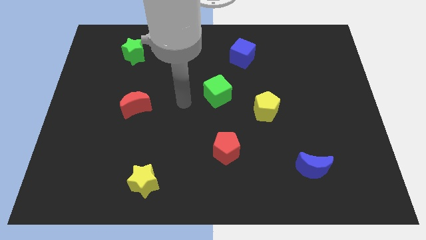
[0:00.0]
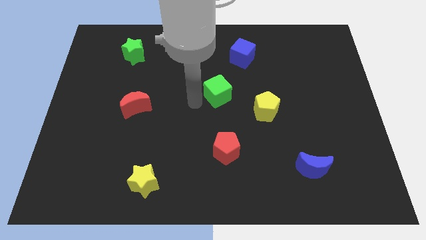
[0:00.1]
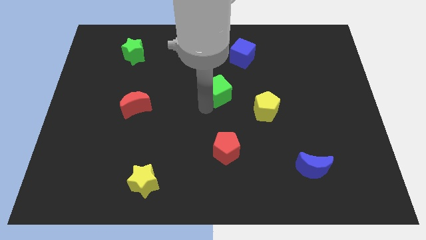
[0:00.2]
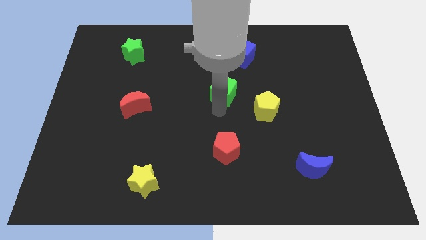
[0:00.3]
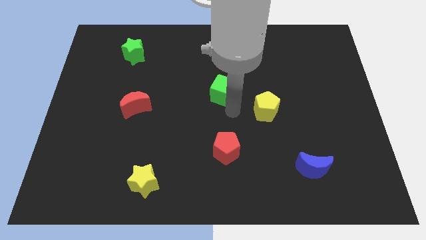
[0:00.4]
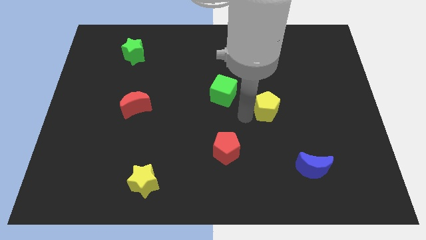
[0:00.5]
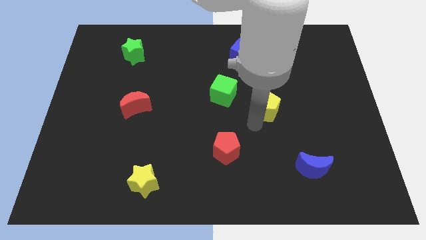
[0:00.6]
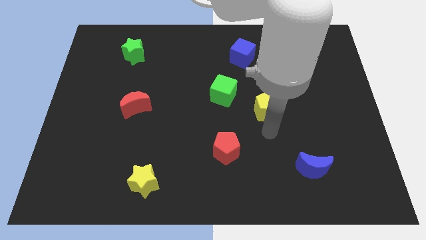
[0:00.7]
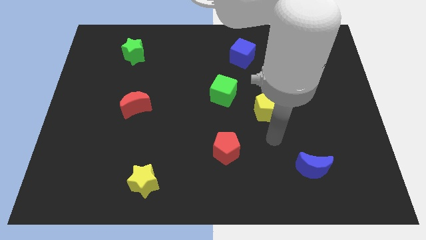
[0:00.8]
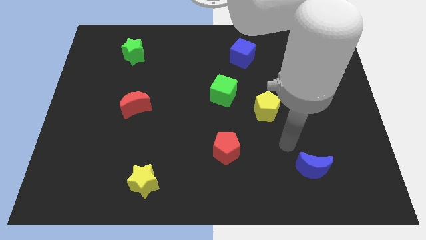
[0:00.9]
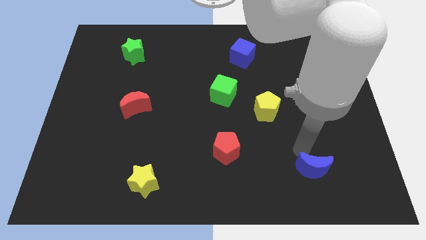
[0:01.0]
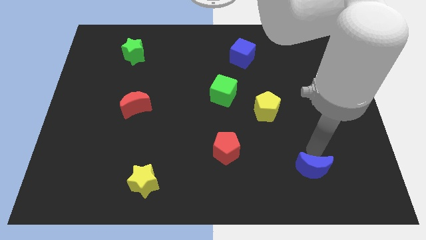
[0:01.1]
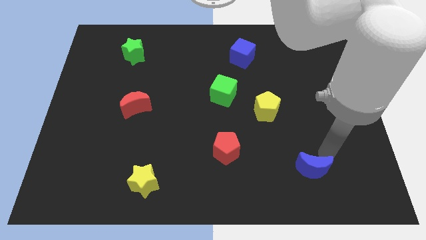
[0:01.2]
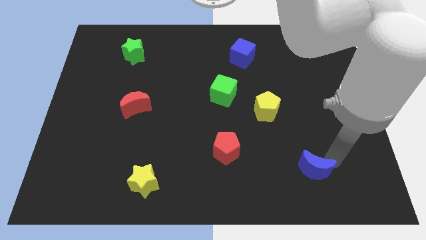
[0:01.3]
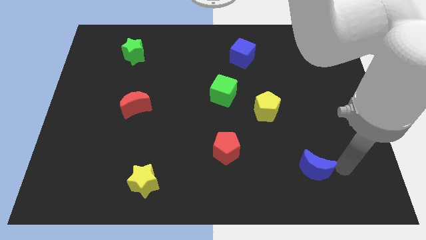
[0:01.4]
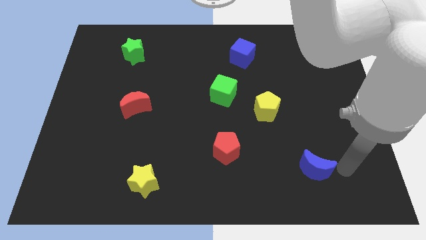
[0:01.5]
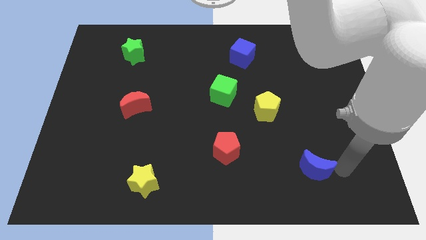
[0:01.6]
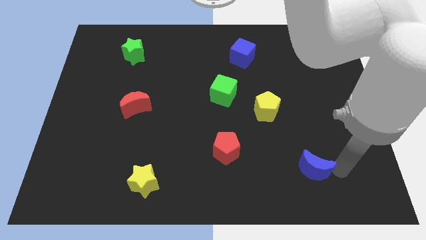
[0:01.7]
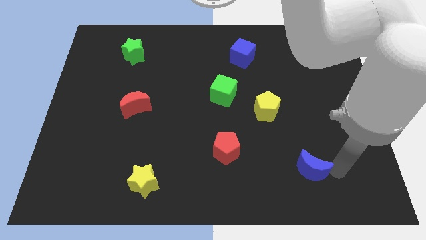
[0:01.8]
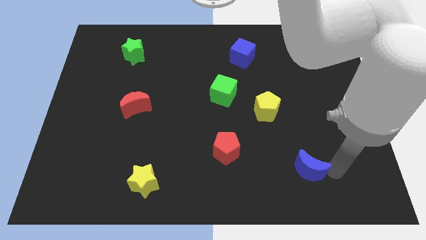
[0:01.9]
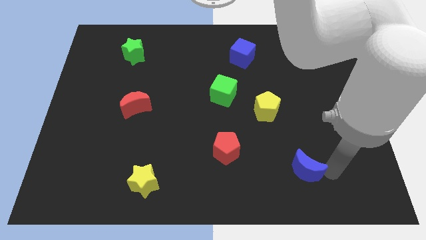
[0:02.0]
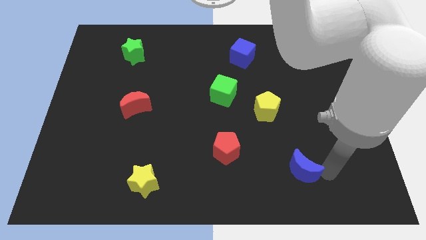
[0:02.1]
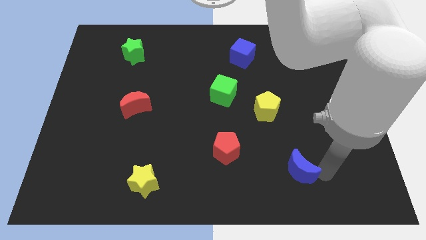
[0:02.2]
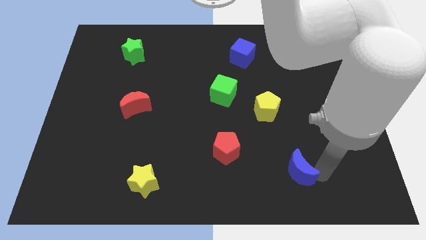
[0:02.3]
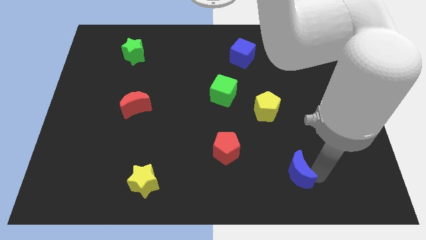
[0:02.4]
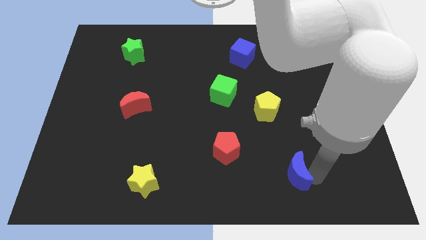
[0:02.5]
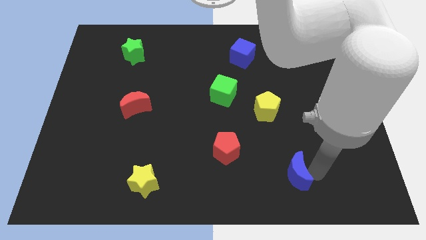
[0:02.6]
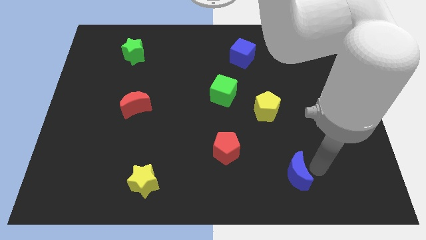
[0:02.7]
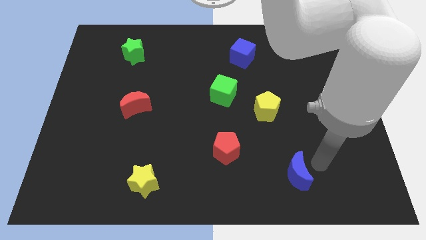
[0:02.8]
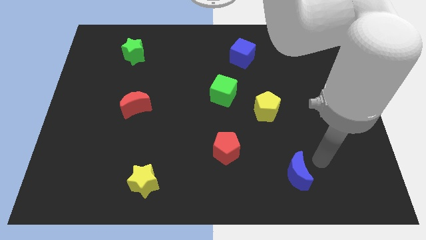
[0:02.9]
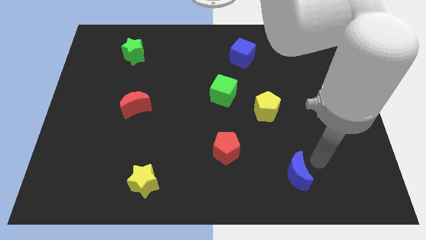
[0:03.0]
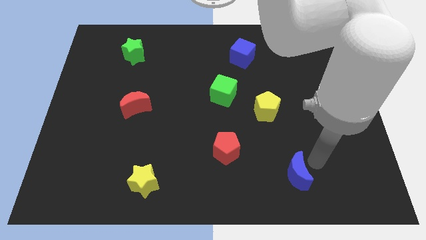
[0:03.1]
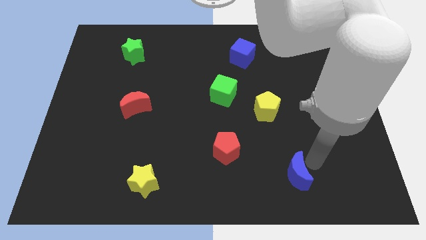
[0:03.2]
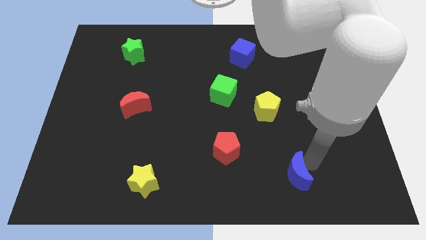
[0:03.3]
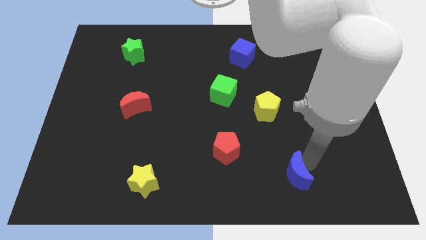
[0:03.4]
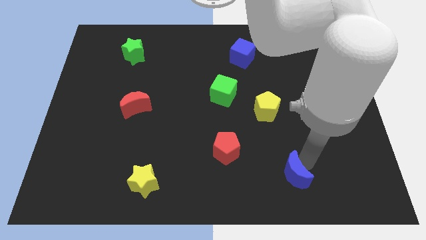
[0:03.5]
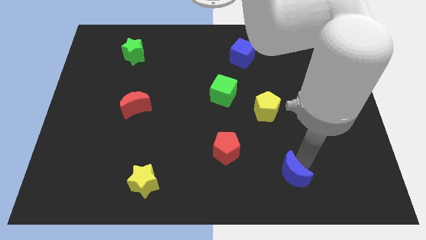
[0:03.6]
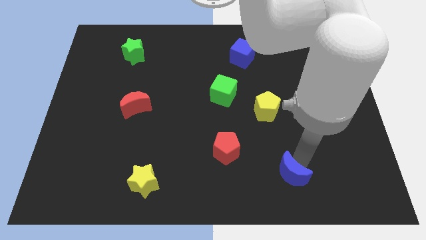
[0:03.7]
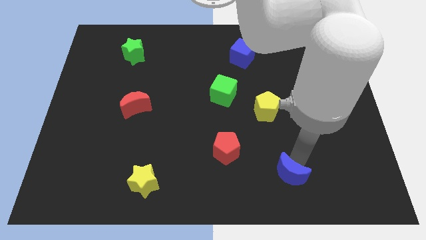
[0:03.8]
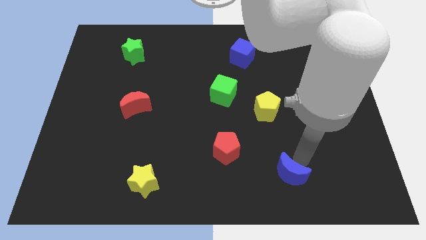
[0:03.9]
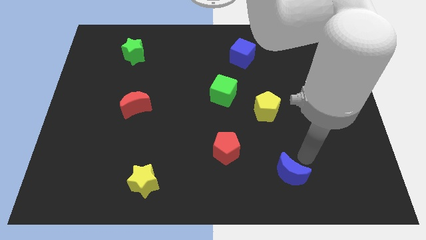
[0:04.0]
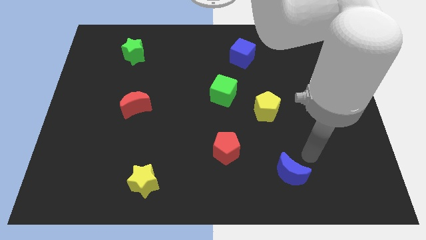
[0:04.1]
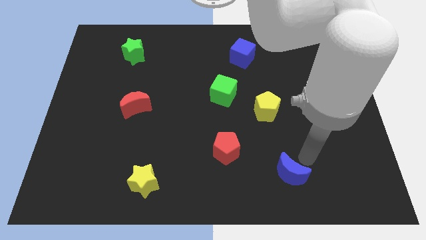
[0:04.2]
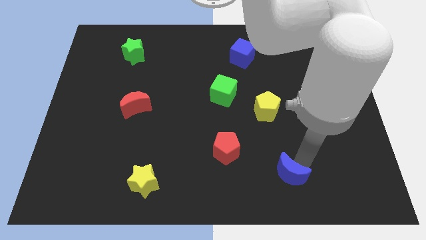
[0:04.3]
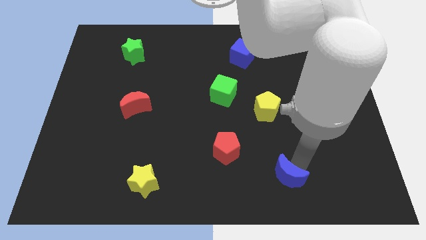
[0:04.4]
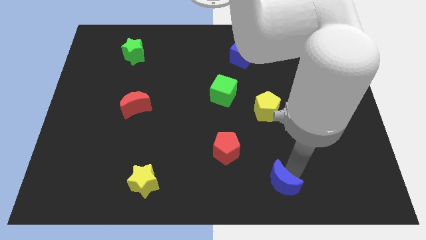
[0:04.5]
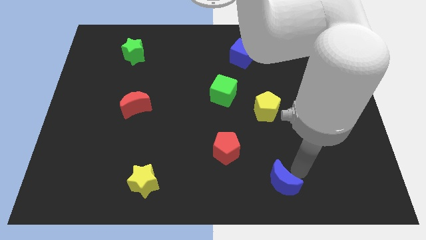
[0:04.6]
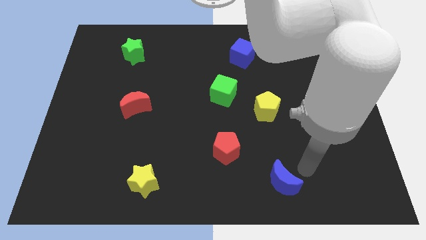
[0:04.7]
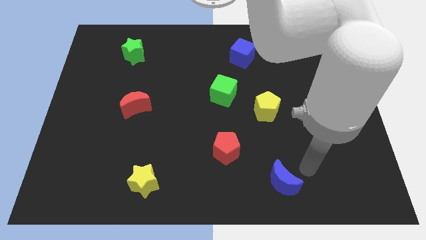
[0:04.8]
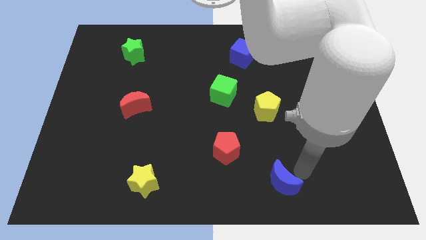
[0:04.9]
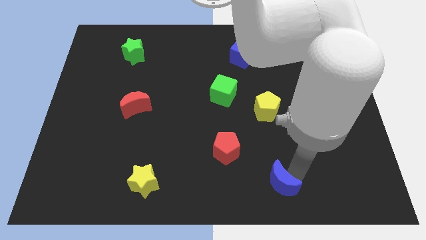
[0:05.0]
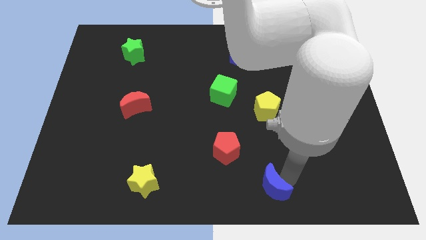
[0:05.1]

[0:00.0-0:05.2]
move the blue moon to the bottom

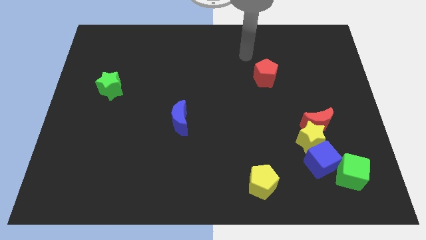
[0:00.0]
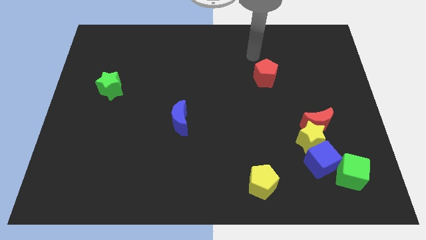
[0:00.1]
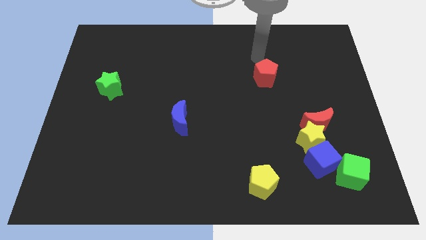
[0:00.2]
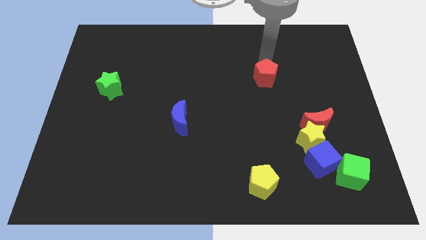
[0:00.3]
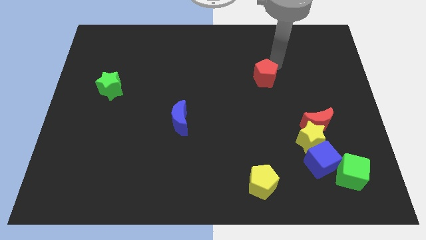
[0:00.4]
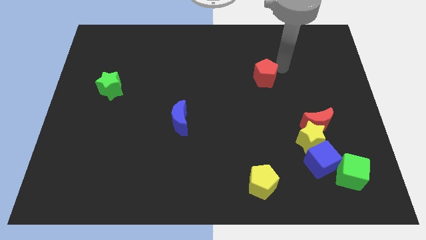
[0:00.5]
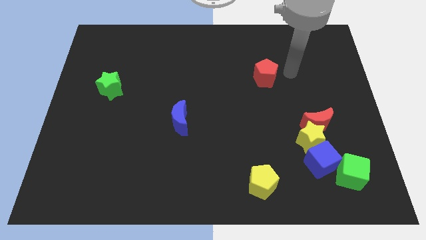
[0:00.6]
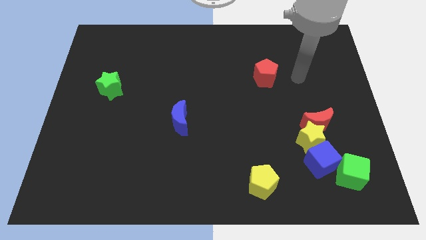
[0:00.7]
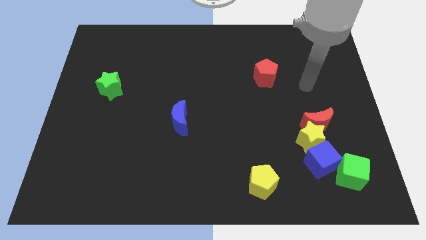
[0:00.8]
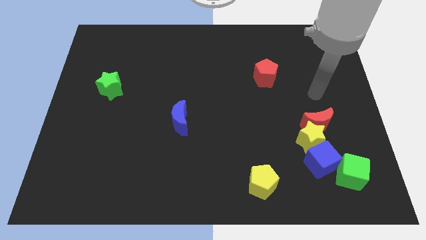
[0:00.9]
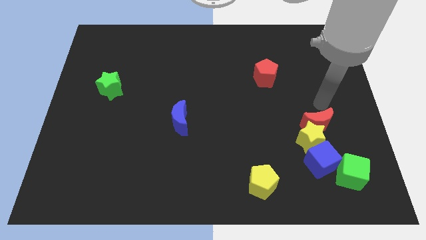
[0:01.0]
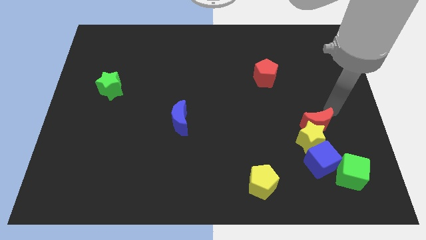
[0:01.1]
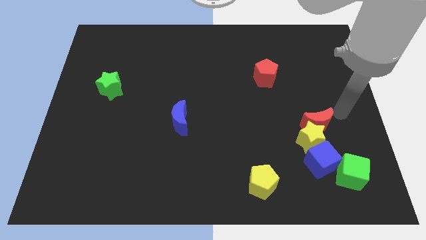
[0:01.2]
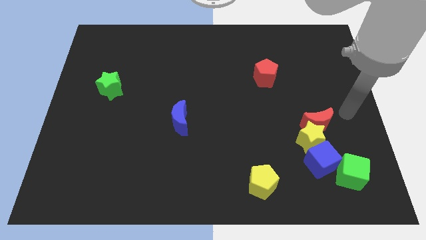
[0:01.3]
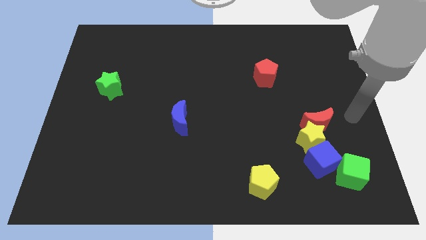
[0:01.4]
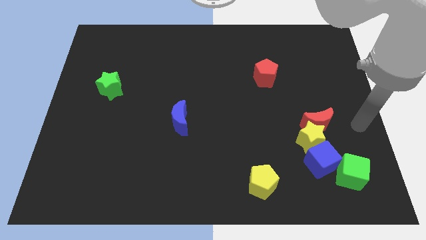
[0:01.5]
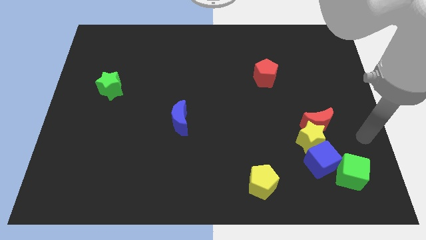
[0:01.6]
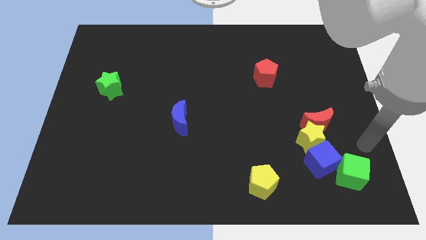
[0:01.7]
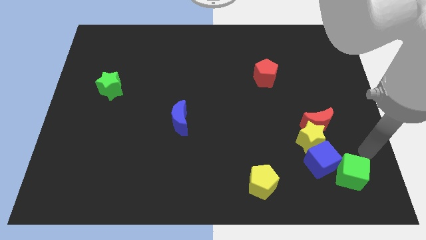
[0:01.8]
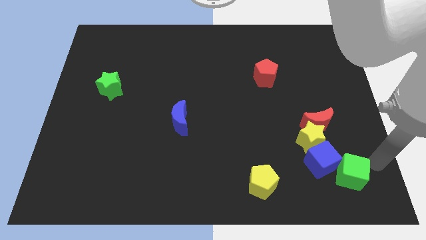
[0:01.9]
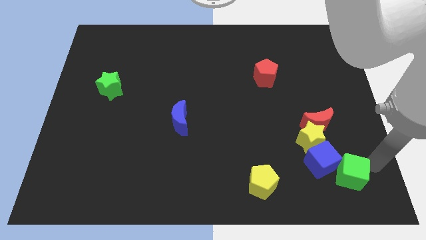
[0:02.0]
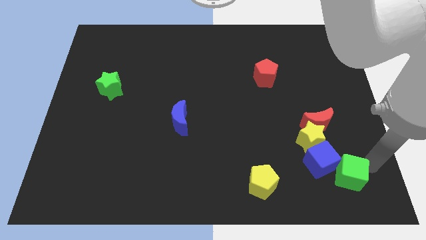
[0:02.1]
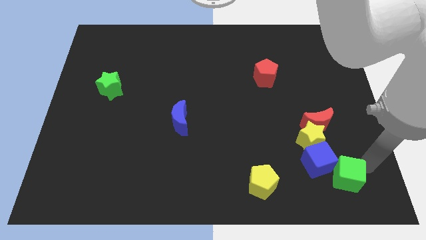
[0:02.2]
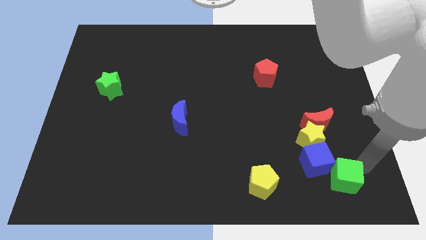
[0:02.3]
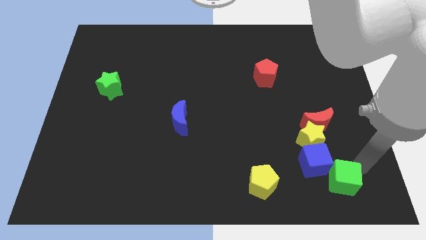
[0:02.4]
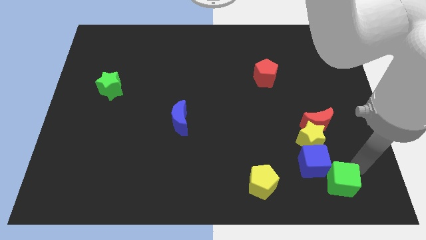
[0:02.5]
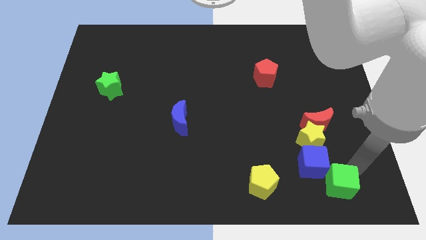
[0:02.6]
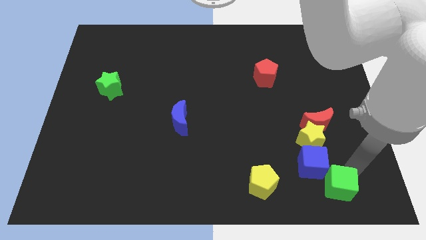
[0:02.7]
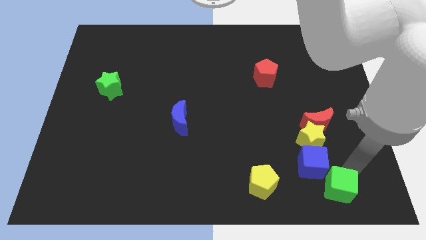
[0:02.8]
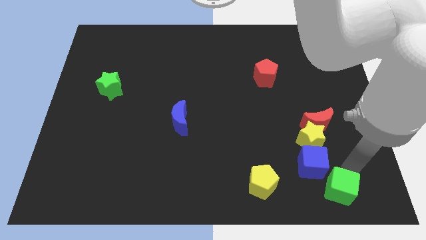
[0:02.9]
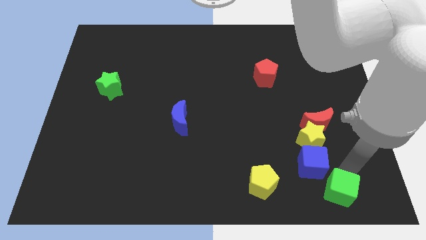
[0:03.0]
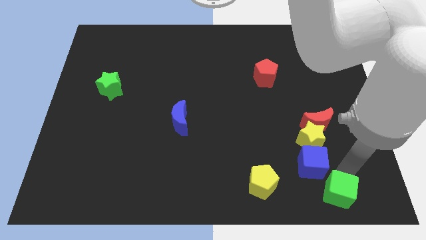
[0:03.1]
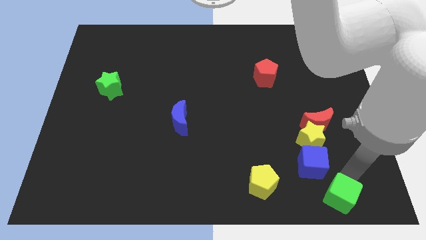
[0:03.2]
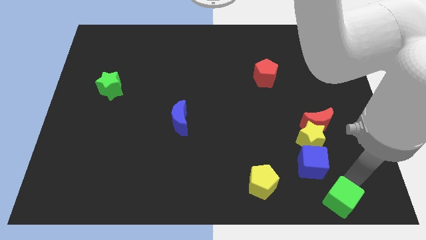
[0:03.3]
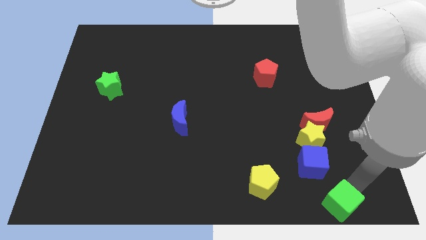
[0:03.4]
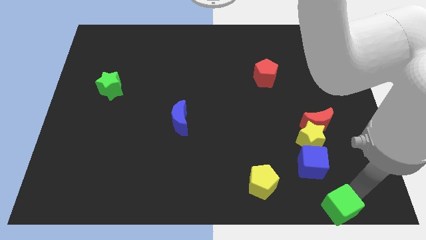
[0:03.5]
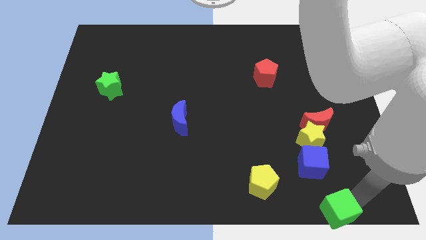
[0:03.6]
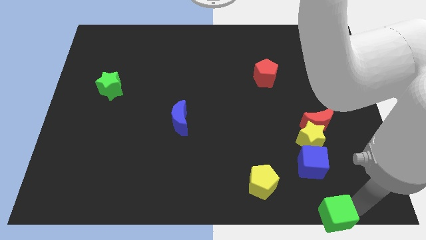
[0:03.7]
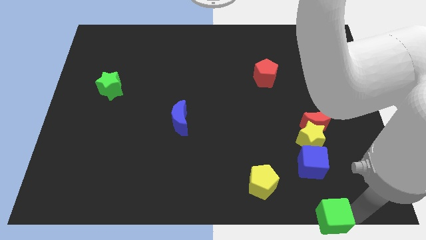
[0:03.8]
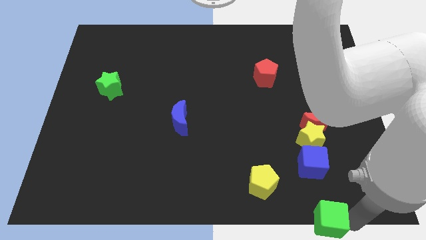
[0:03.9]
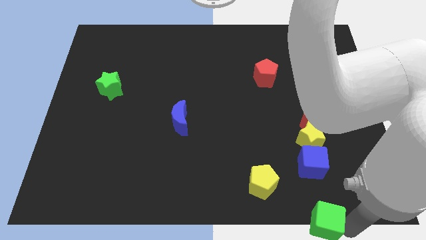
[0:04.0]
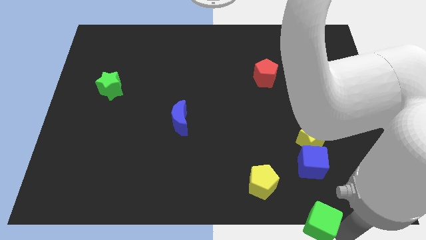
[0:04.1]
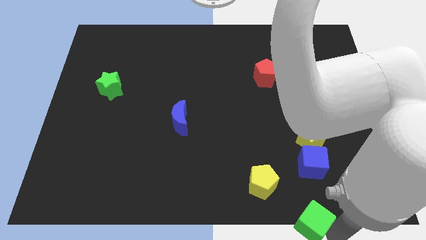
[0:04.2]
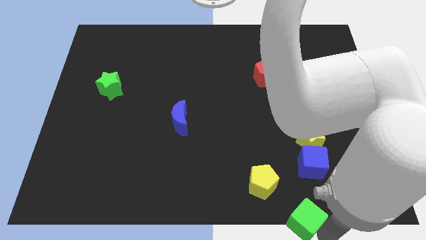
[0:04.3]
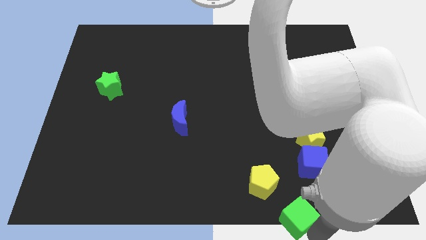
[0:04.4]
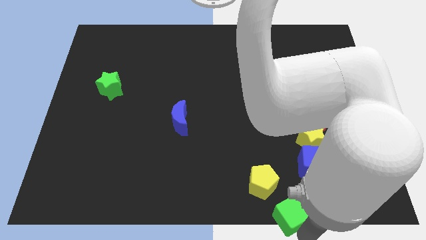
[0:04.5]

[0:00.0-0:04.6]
push the green cube to the bottom
